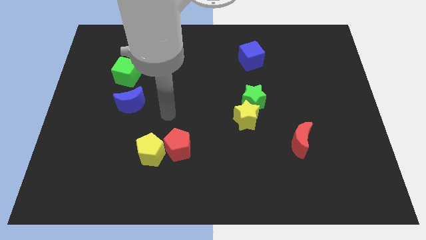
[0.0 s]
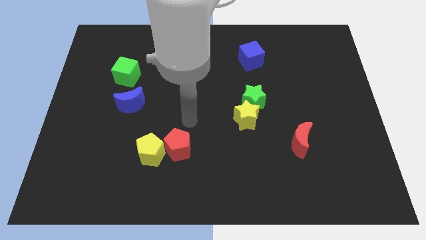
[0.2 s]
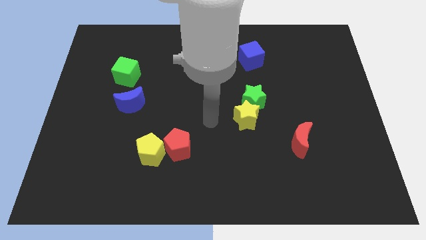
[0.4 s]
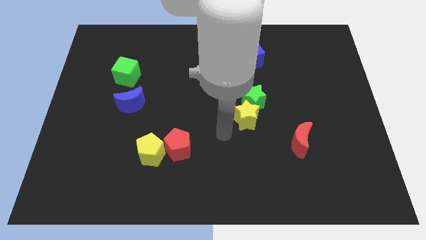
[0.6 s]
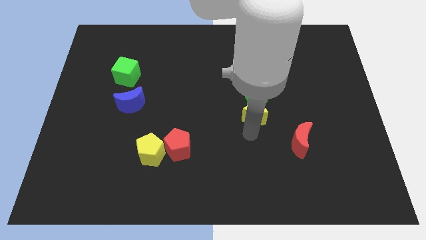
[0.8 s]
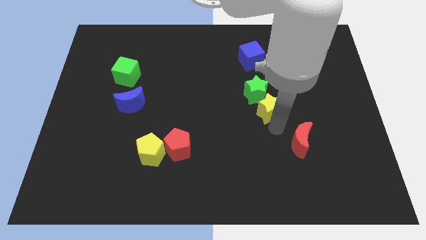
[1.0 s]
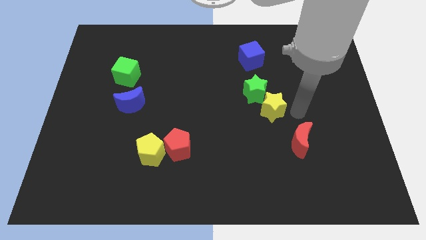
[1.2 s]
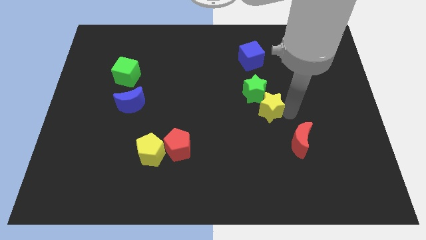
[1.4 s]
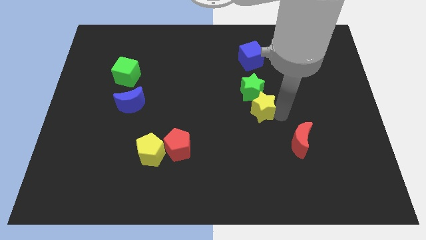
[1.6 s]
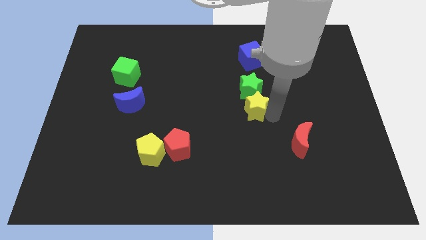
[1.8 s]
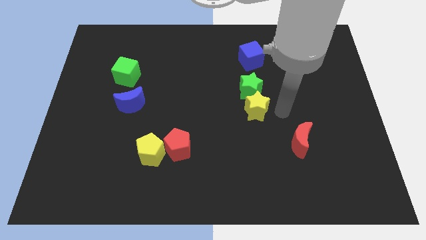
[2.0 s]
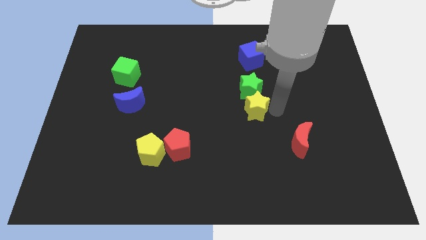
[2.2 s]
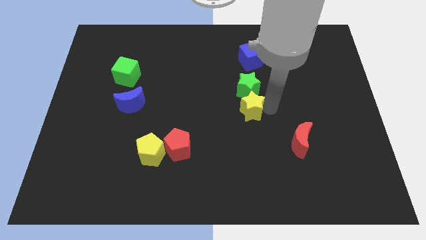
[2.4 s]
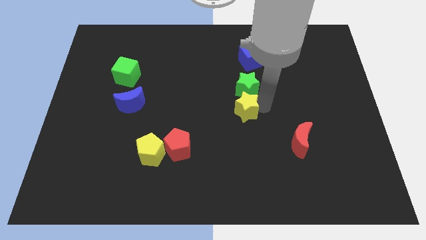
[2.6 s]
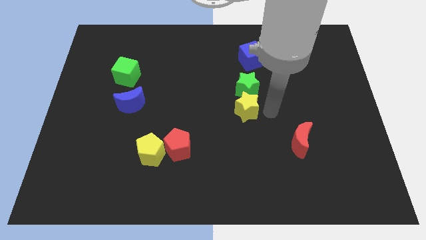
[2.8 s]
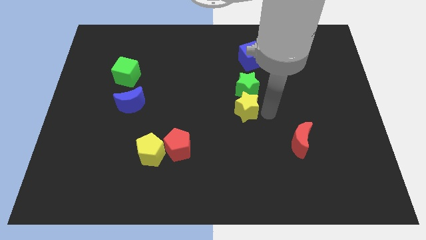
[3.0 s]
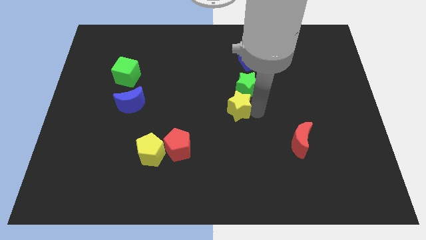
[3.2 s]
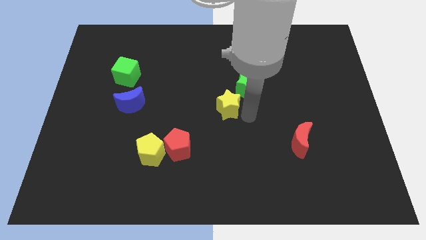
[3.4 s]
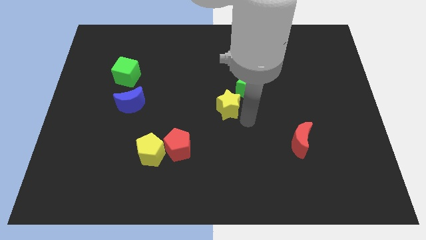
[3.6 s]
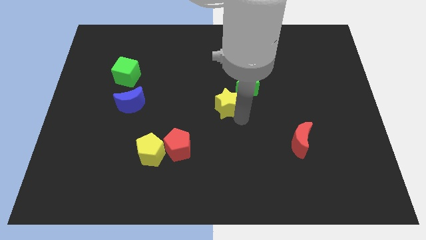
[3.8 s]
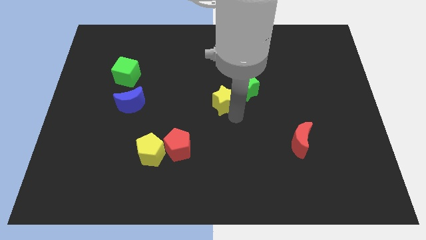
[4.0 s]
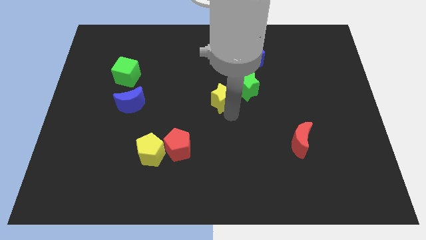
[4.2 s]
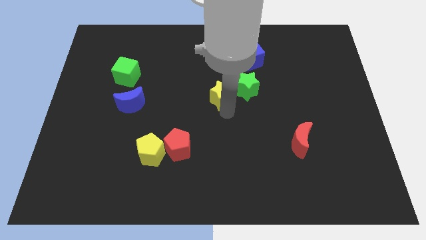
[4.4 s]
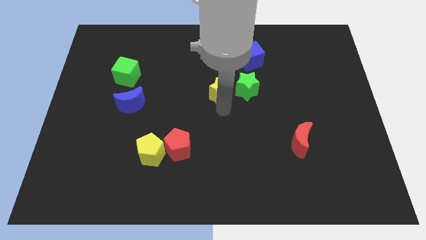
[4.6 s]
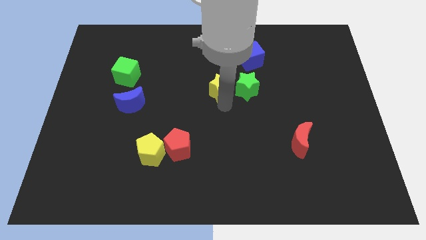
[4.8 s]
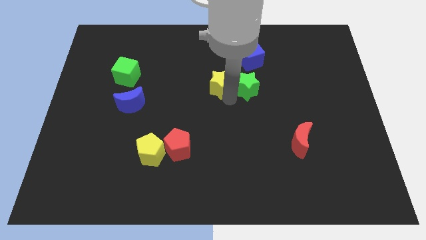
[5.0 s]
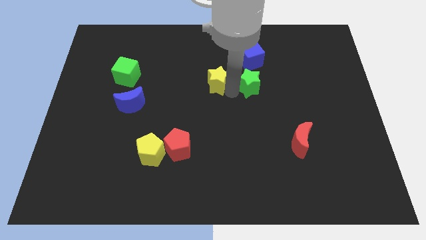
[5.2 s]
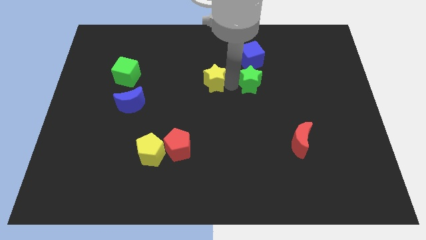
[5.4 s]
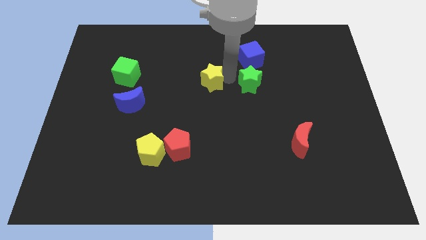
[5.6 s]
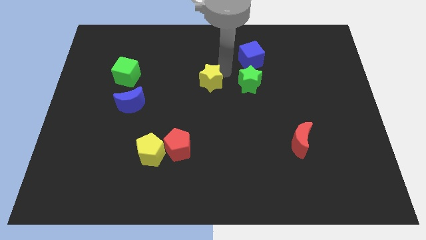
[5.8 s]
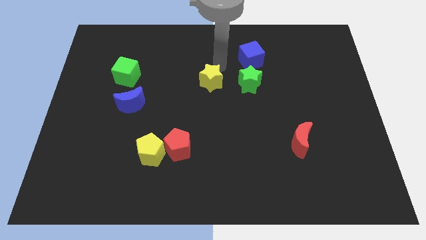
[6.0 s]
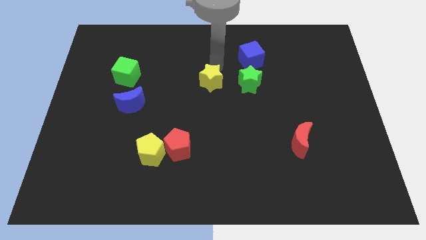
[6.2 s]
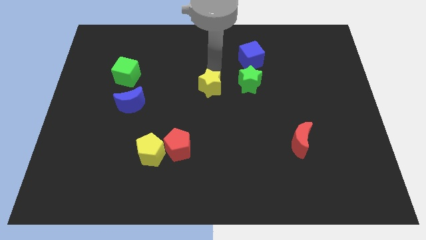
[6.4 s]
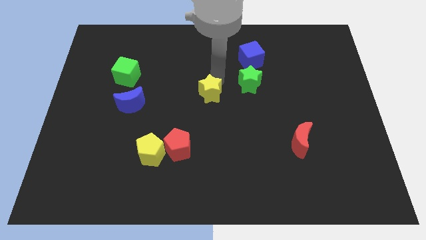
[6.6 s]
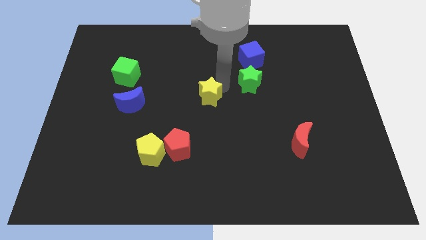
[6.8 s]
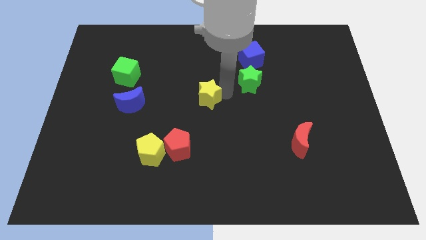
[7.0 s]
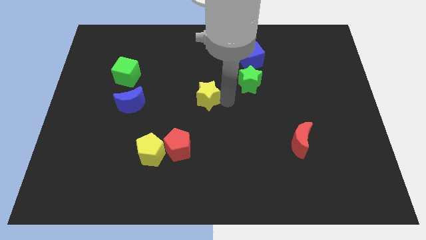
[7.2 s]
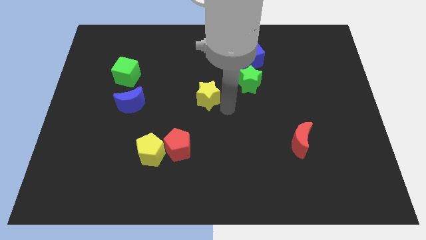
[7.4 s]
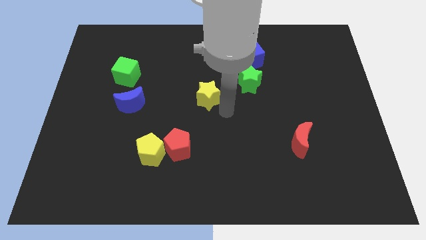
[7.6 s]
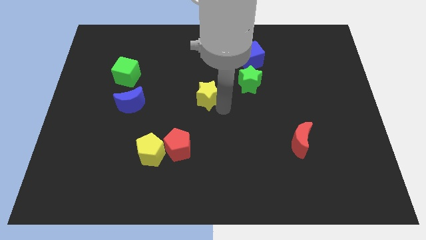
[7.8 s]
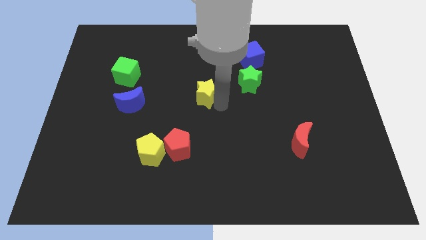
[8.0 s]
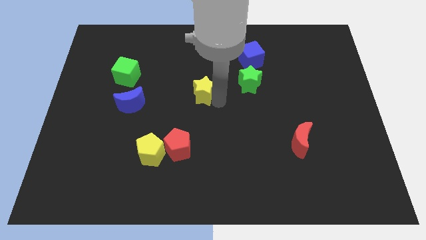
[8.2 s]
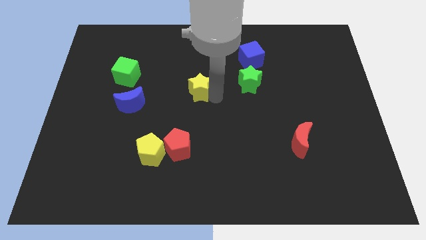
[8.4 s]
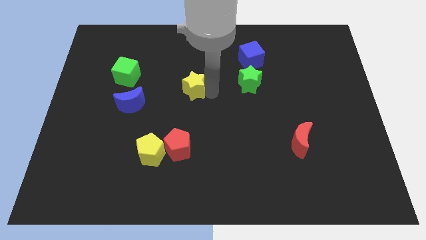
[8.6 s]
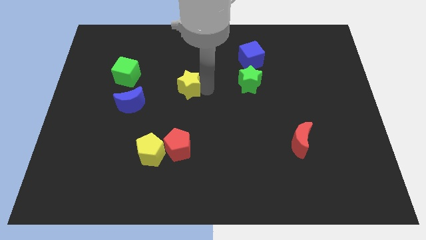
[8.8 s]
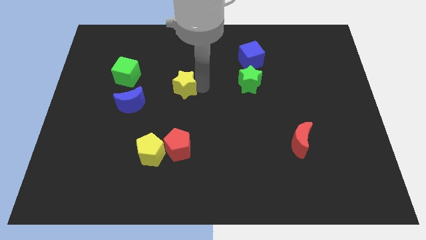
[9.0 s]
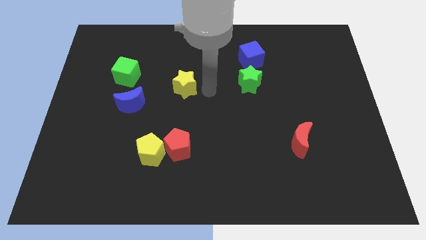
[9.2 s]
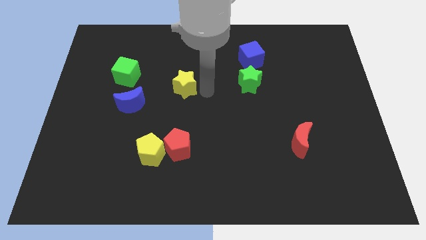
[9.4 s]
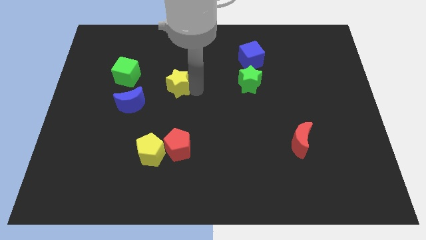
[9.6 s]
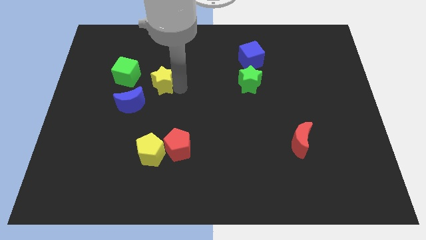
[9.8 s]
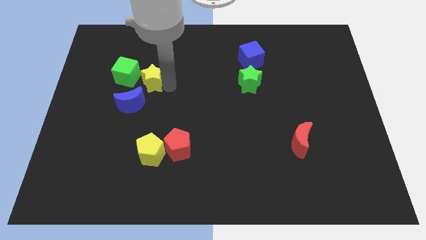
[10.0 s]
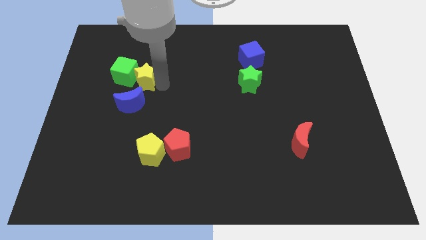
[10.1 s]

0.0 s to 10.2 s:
slide the yellow star close to the green cube

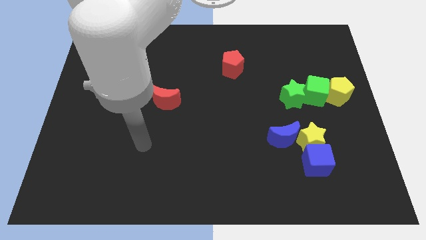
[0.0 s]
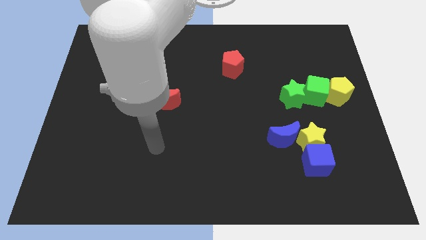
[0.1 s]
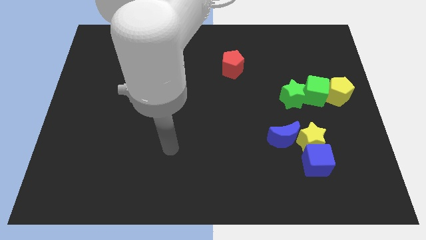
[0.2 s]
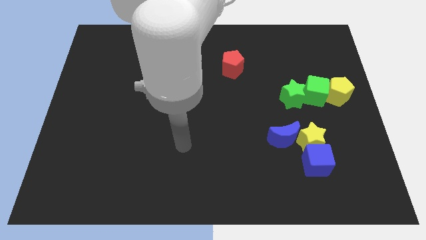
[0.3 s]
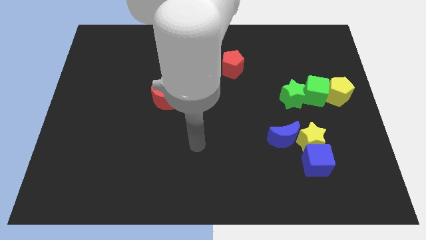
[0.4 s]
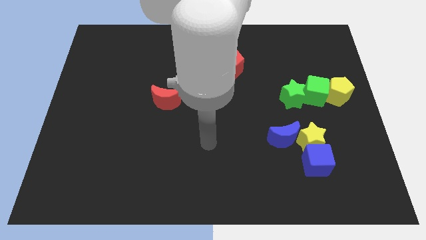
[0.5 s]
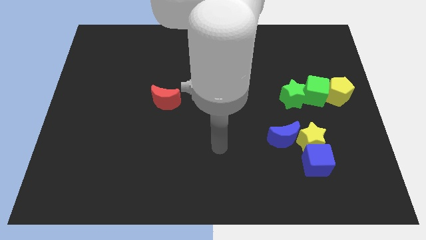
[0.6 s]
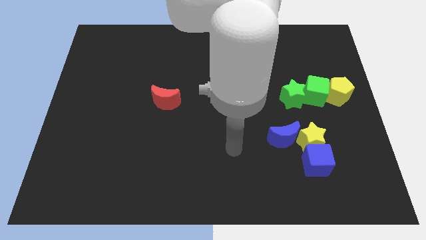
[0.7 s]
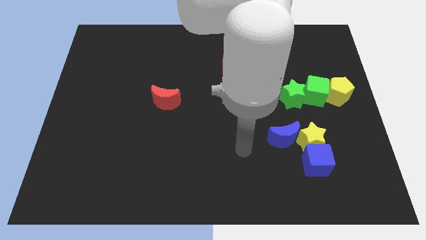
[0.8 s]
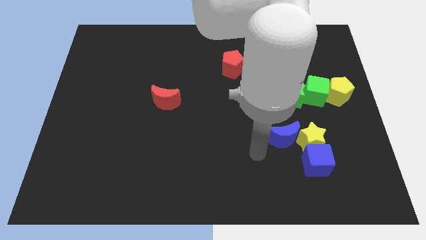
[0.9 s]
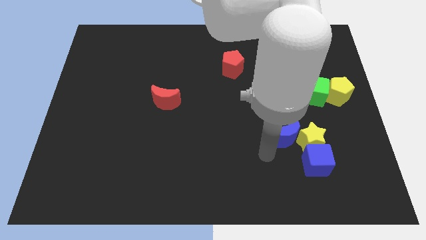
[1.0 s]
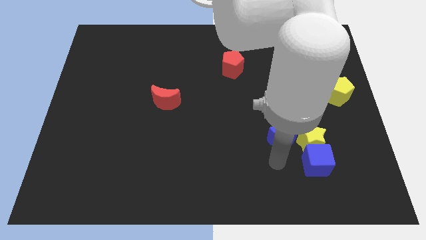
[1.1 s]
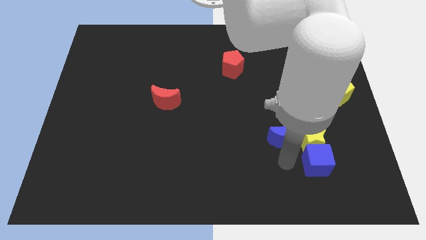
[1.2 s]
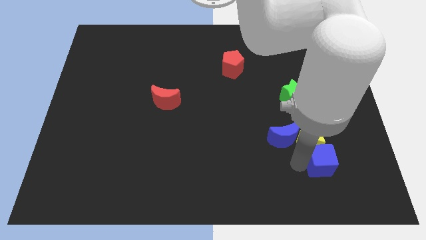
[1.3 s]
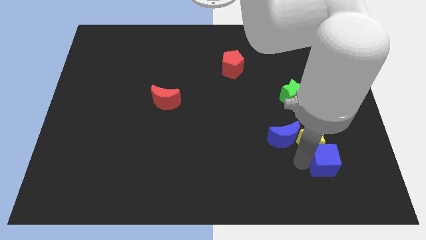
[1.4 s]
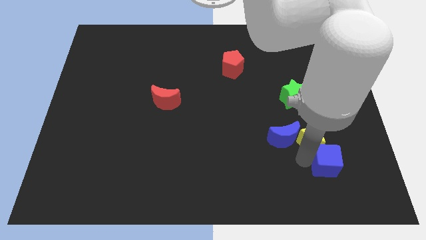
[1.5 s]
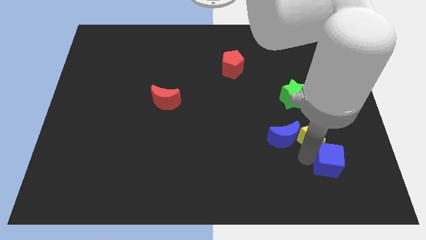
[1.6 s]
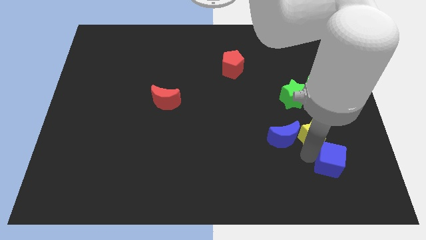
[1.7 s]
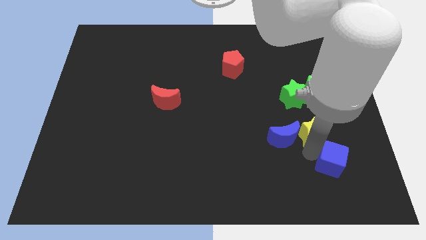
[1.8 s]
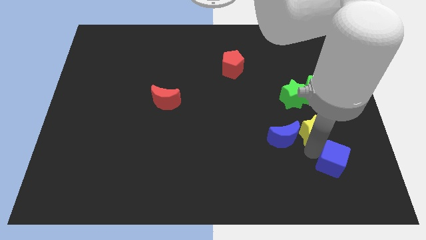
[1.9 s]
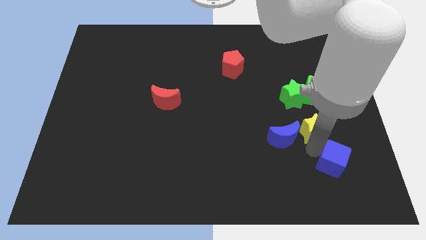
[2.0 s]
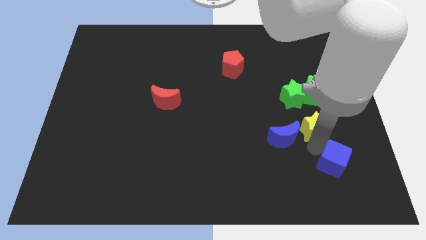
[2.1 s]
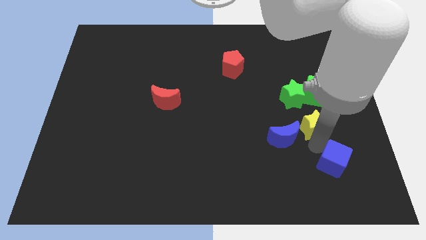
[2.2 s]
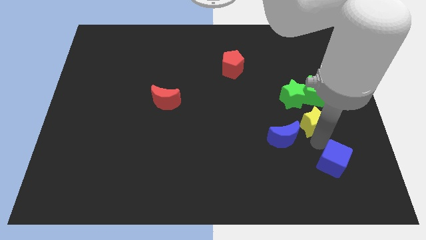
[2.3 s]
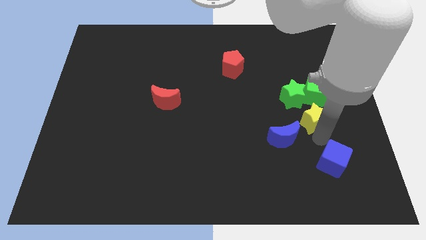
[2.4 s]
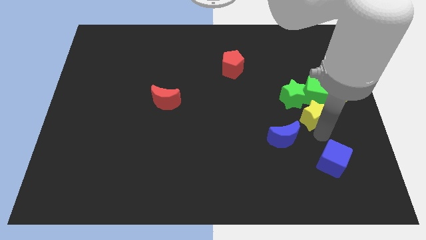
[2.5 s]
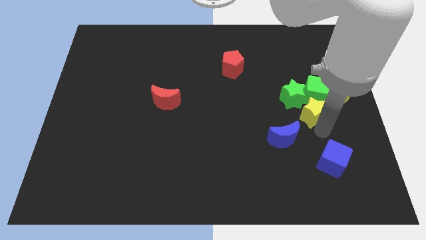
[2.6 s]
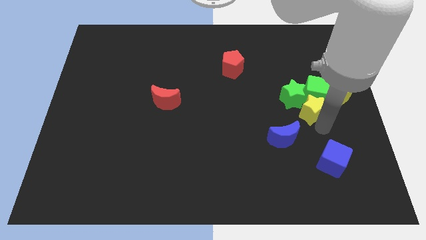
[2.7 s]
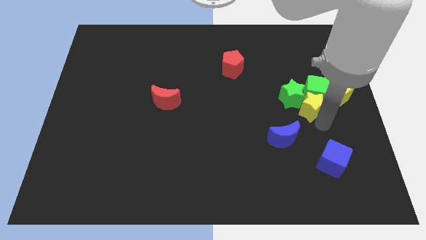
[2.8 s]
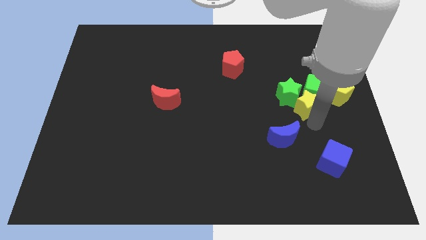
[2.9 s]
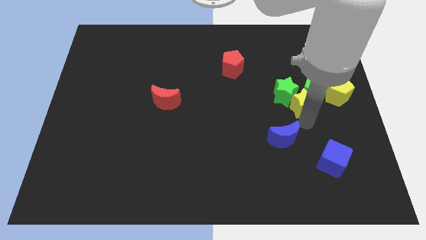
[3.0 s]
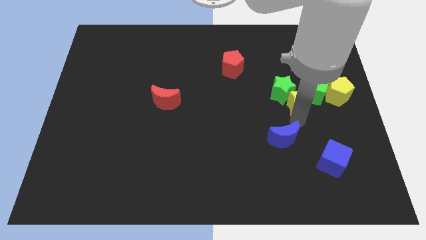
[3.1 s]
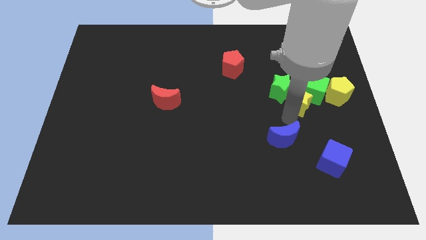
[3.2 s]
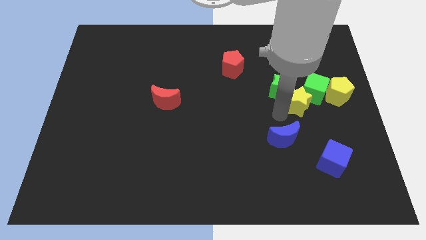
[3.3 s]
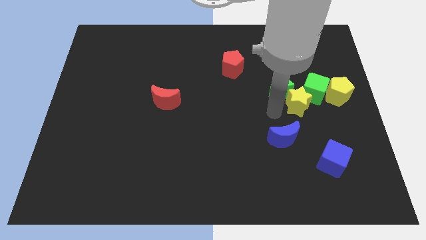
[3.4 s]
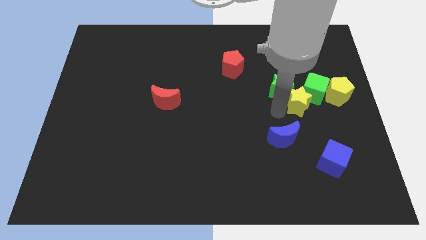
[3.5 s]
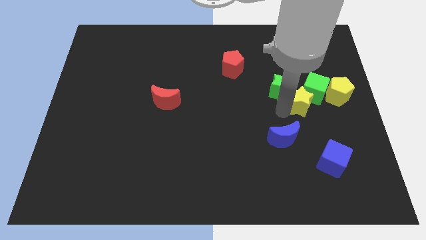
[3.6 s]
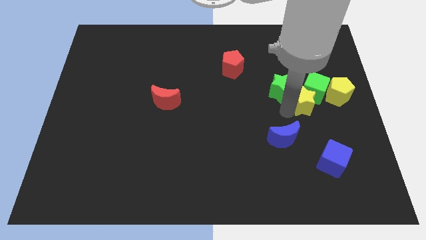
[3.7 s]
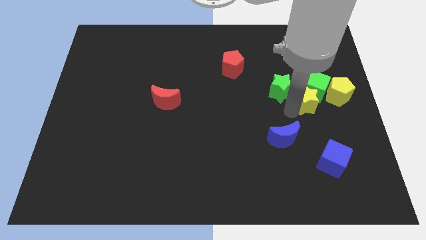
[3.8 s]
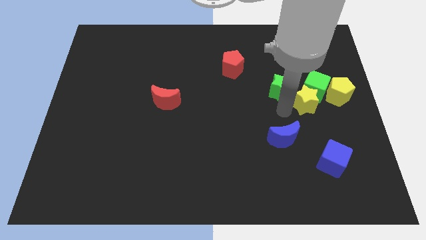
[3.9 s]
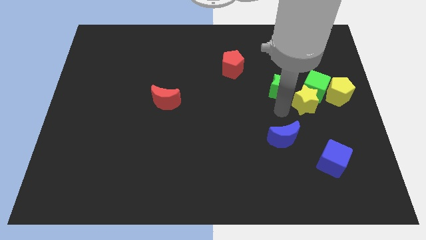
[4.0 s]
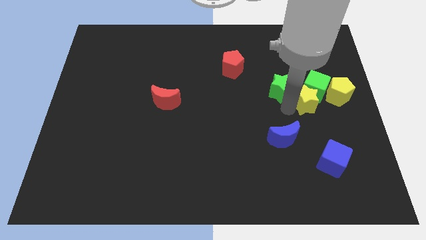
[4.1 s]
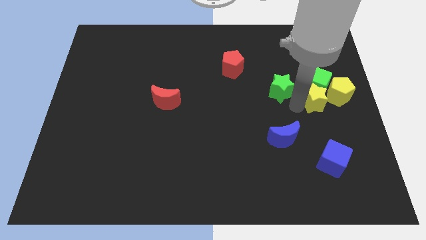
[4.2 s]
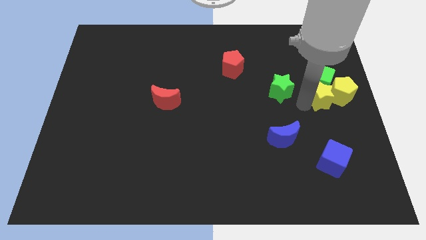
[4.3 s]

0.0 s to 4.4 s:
push the yellow star to the yellow pentagon
